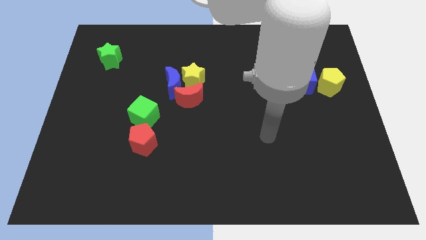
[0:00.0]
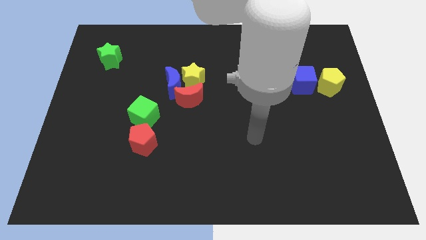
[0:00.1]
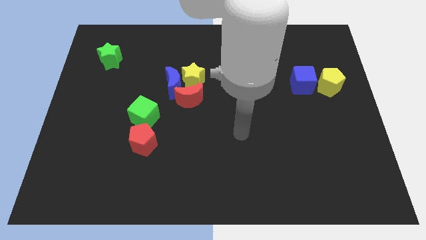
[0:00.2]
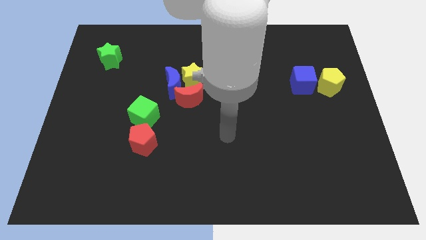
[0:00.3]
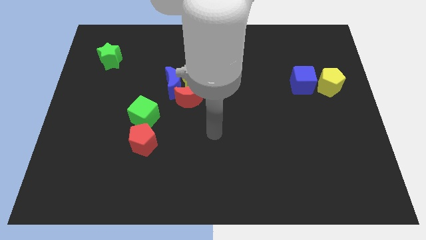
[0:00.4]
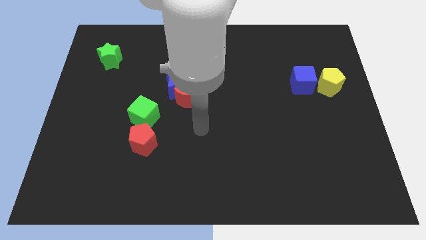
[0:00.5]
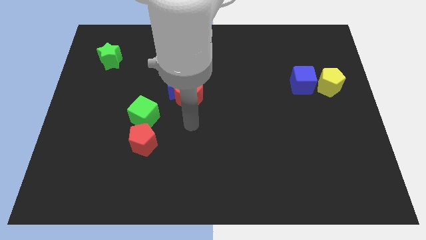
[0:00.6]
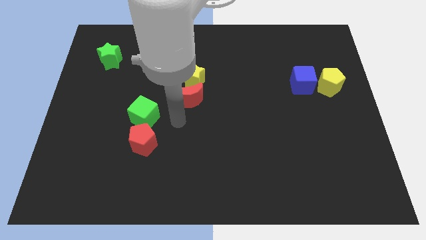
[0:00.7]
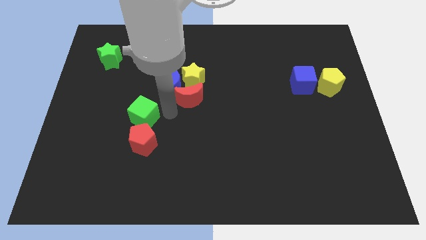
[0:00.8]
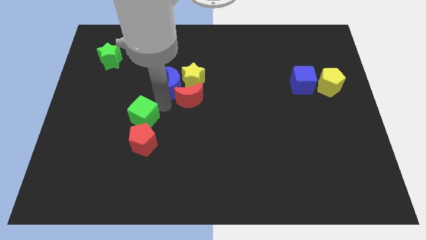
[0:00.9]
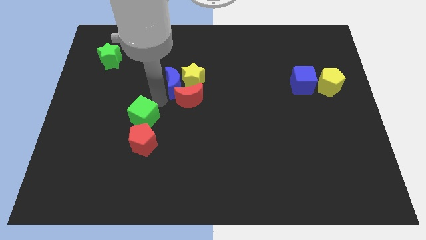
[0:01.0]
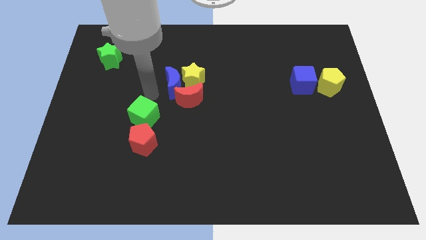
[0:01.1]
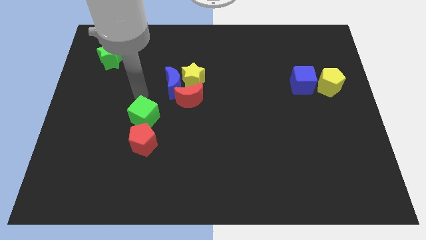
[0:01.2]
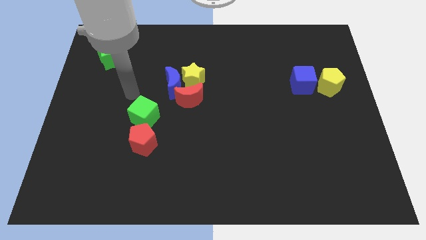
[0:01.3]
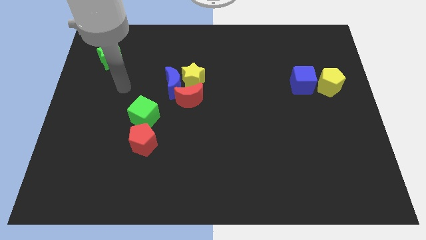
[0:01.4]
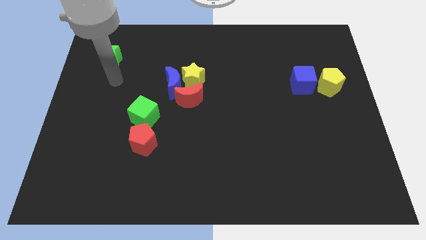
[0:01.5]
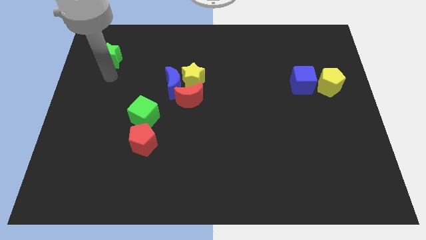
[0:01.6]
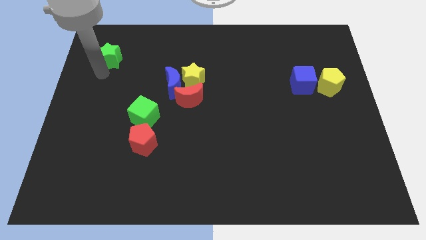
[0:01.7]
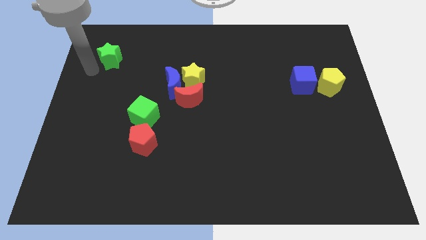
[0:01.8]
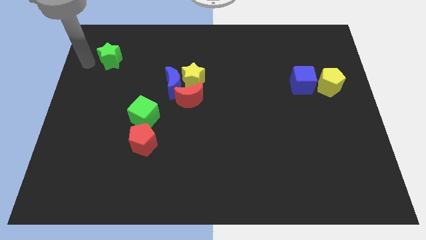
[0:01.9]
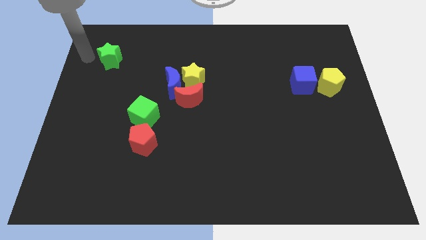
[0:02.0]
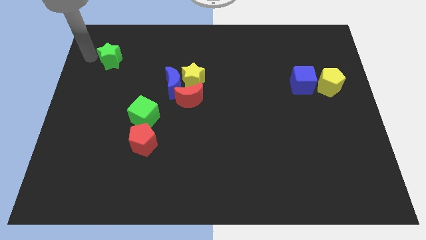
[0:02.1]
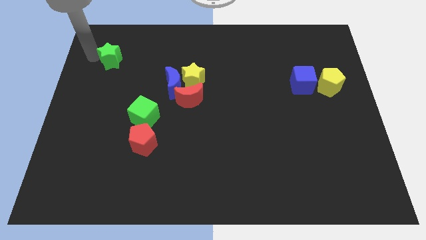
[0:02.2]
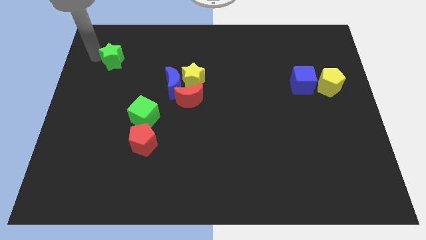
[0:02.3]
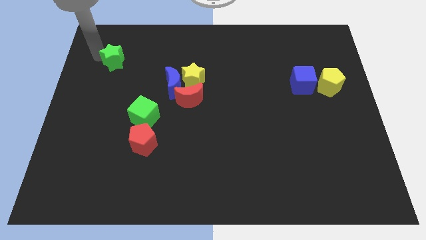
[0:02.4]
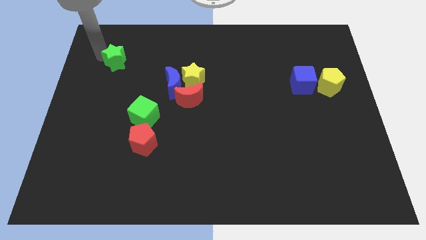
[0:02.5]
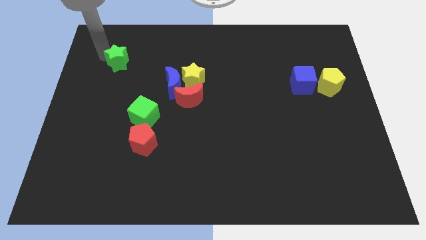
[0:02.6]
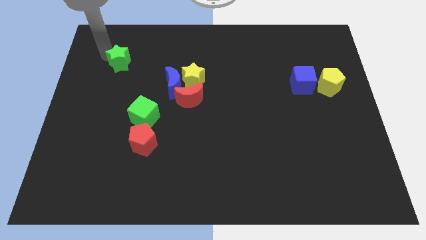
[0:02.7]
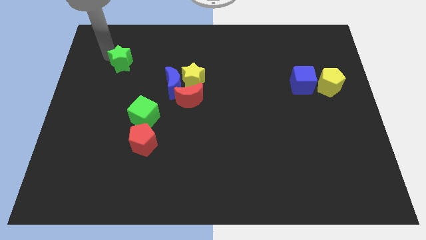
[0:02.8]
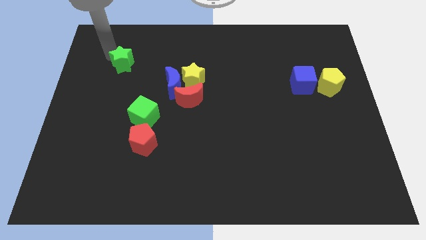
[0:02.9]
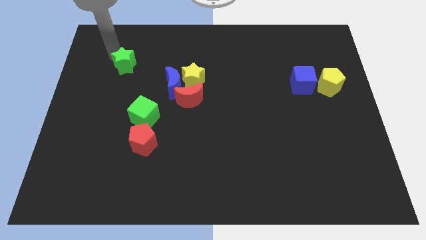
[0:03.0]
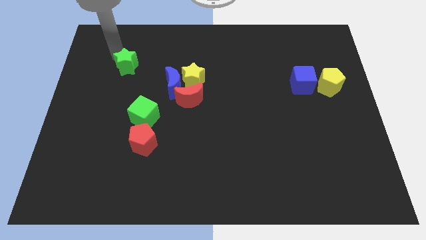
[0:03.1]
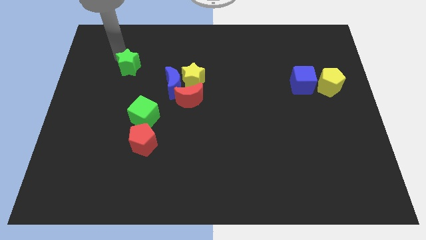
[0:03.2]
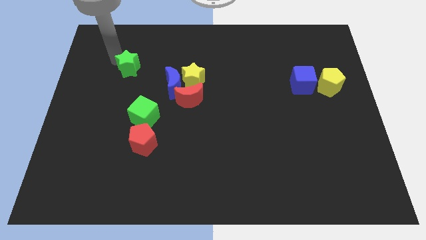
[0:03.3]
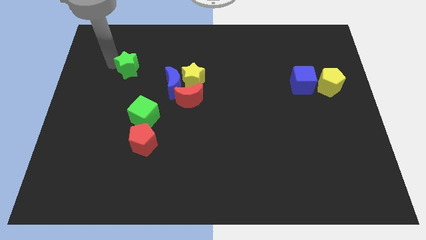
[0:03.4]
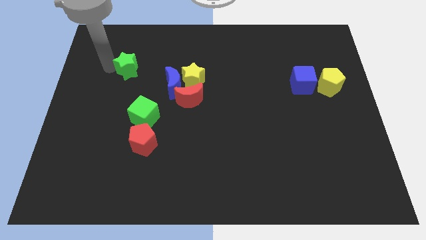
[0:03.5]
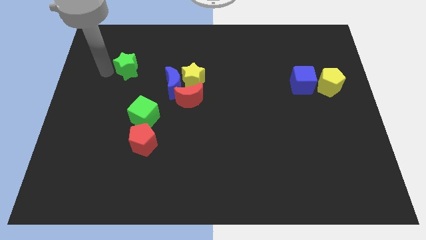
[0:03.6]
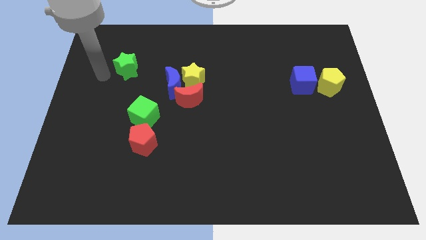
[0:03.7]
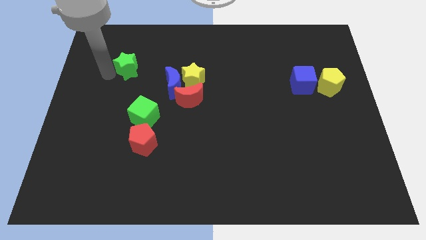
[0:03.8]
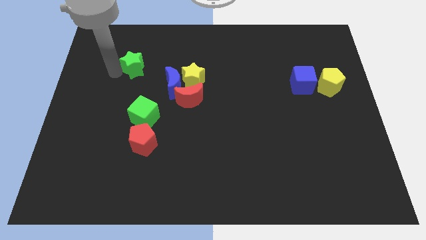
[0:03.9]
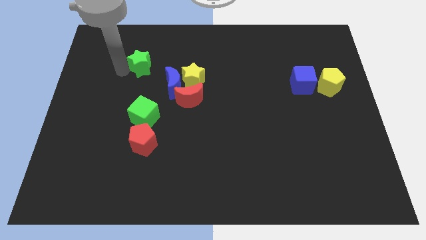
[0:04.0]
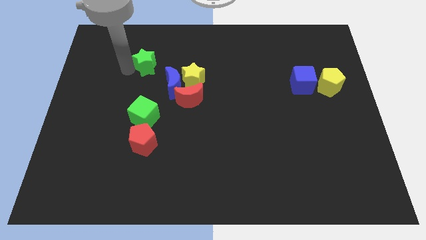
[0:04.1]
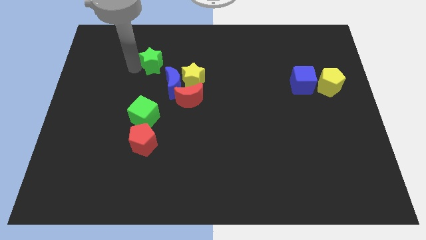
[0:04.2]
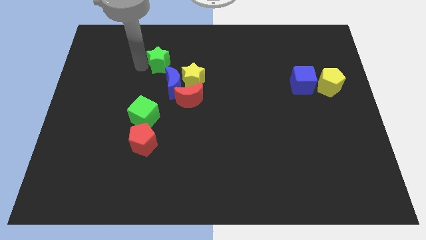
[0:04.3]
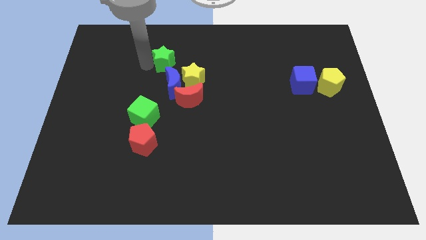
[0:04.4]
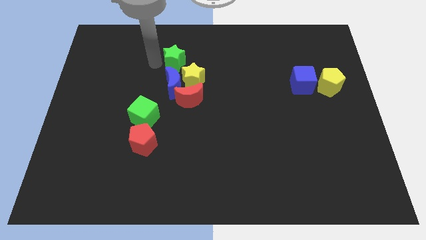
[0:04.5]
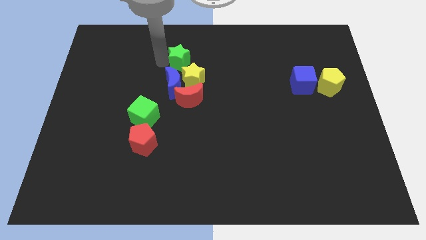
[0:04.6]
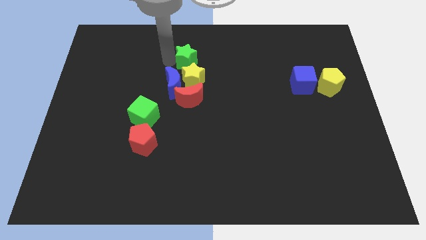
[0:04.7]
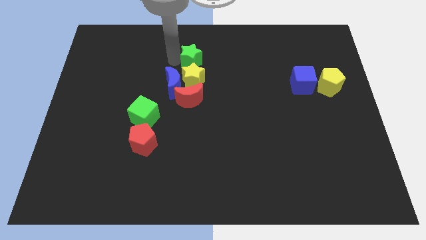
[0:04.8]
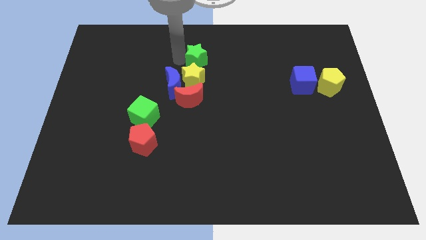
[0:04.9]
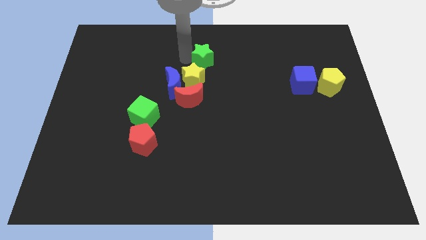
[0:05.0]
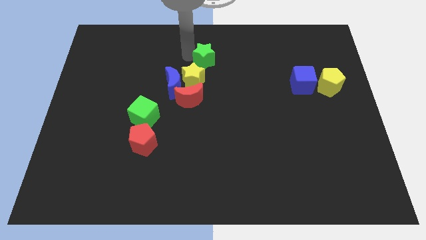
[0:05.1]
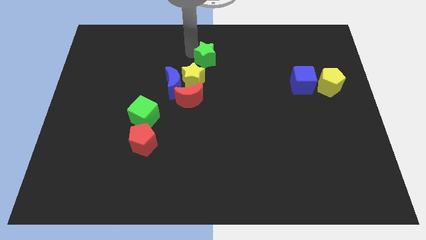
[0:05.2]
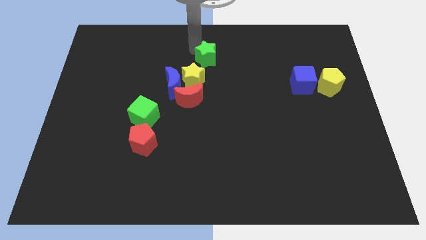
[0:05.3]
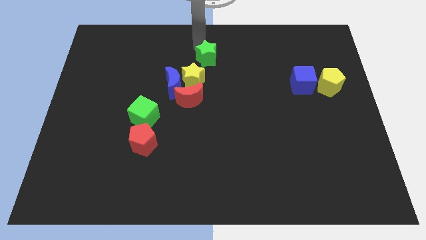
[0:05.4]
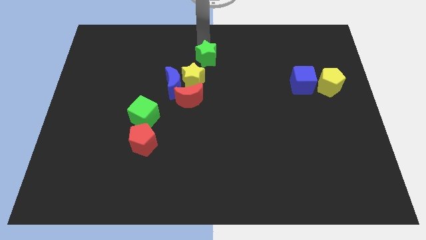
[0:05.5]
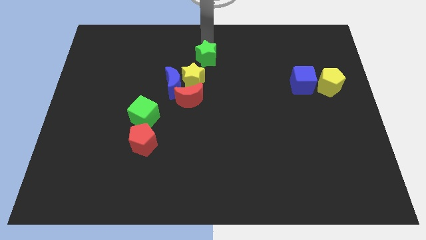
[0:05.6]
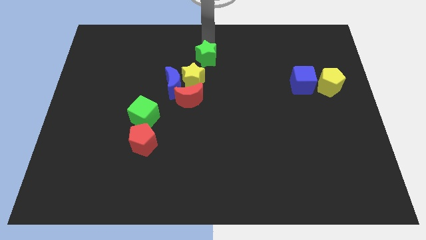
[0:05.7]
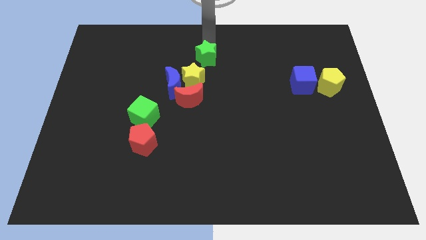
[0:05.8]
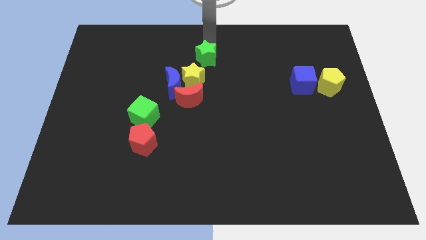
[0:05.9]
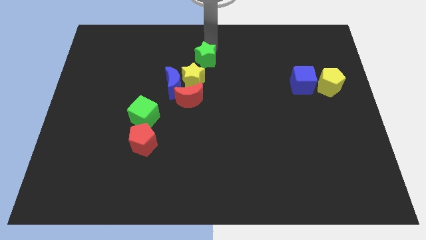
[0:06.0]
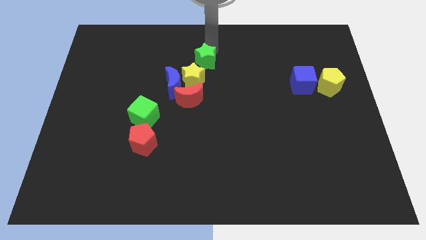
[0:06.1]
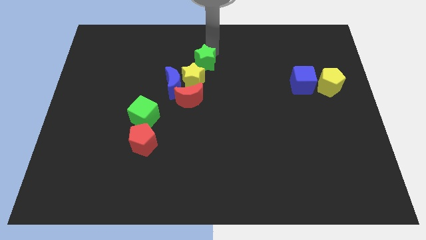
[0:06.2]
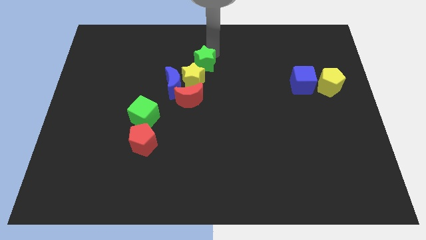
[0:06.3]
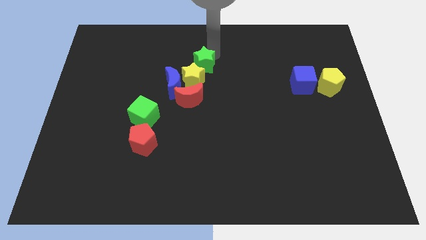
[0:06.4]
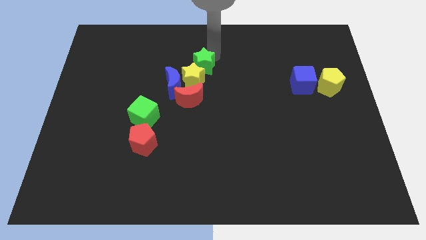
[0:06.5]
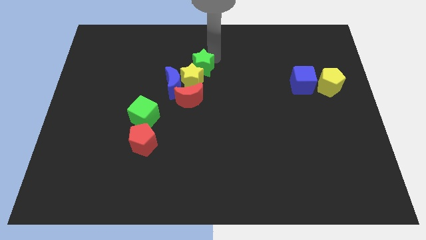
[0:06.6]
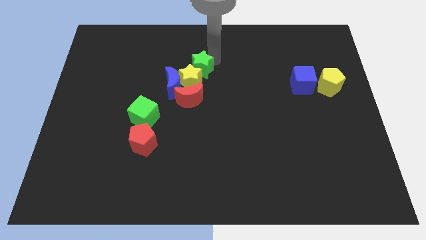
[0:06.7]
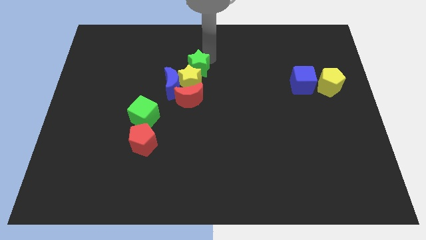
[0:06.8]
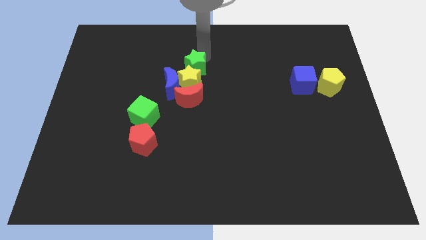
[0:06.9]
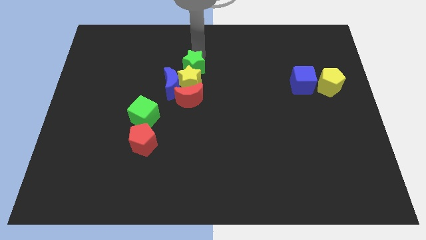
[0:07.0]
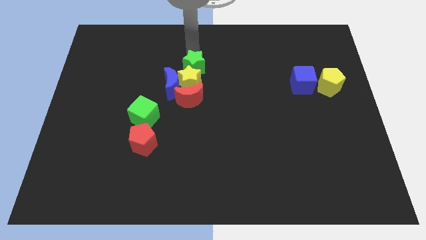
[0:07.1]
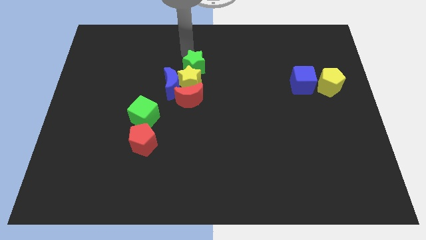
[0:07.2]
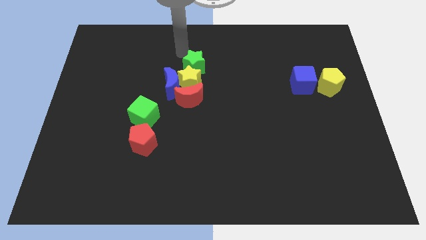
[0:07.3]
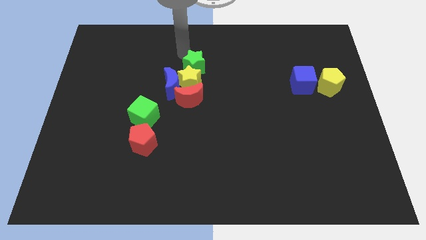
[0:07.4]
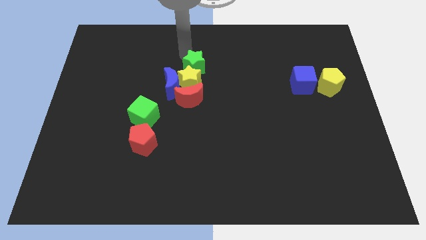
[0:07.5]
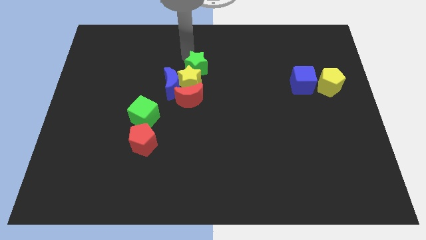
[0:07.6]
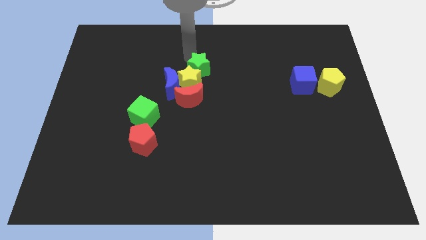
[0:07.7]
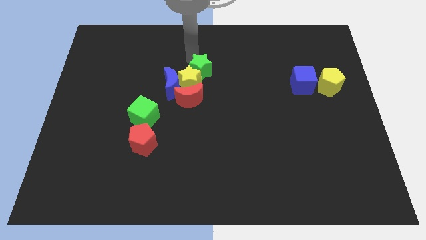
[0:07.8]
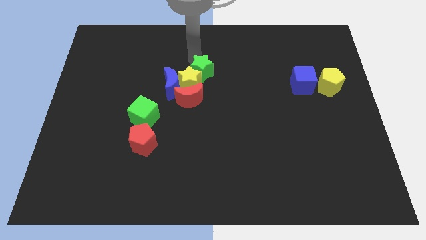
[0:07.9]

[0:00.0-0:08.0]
push the green star to the top right of the red moon
